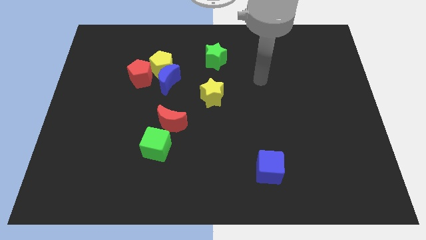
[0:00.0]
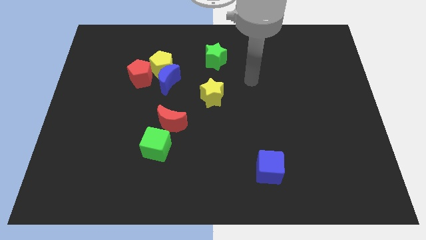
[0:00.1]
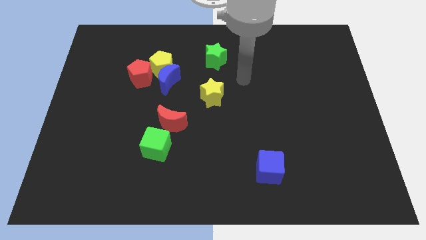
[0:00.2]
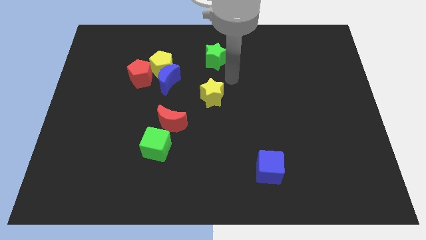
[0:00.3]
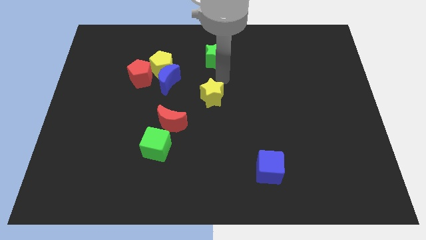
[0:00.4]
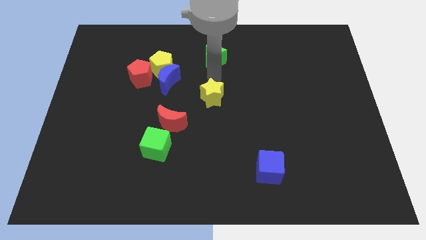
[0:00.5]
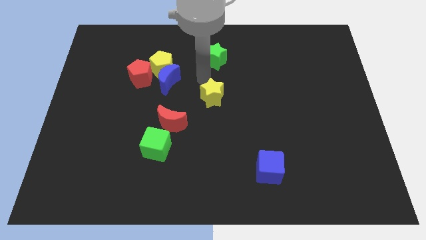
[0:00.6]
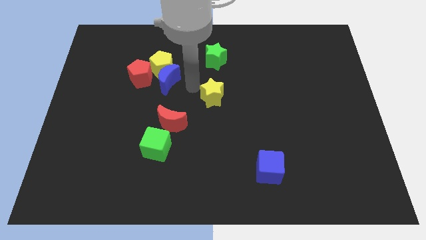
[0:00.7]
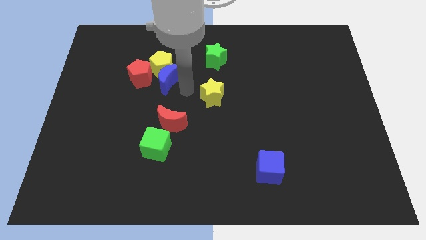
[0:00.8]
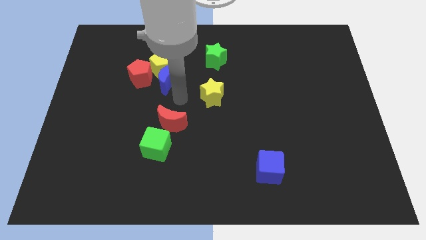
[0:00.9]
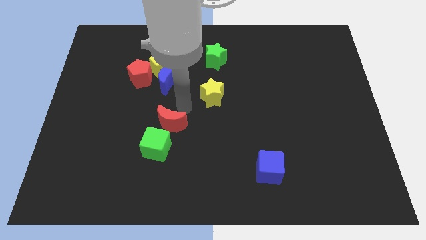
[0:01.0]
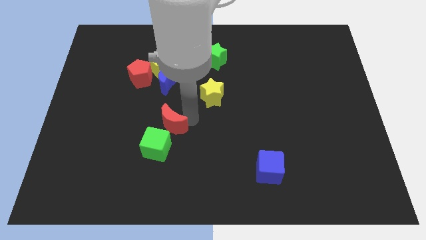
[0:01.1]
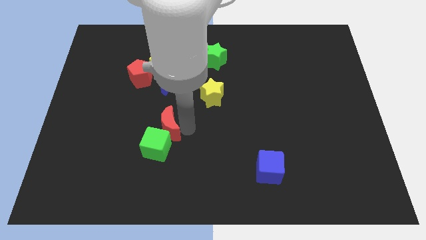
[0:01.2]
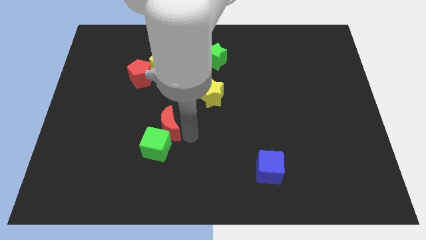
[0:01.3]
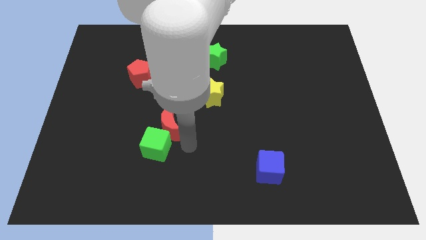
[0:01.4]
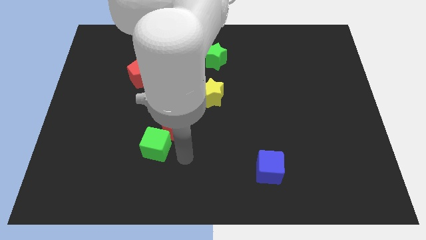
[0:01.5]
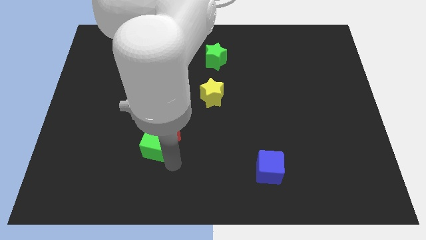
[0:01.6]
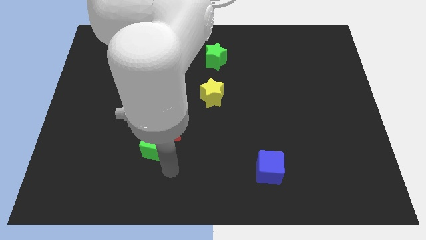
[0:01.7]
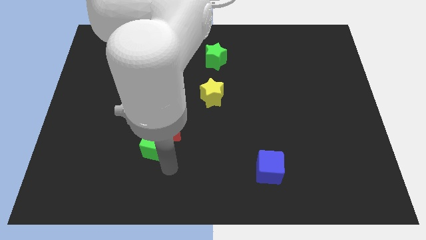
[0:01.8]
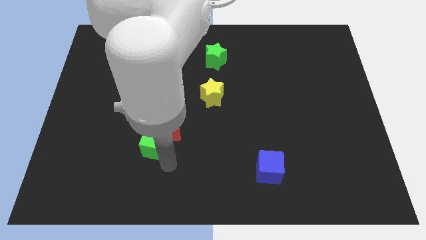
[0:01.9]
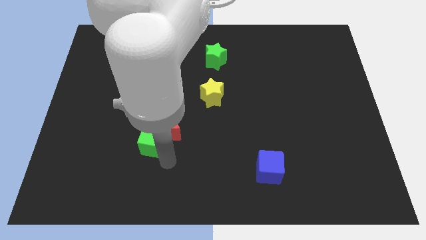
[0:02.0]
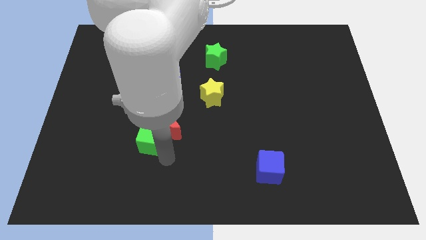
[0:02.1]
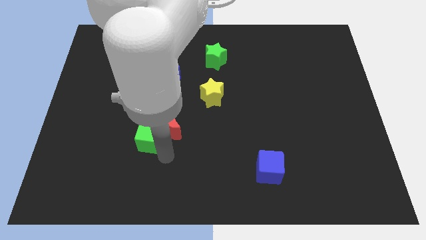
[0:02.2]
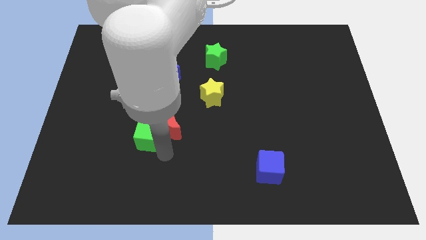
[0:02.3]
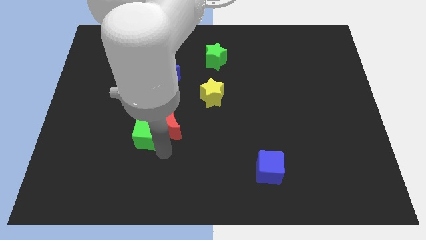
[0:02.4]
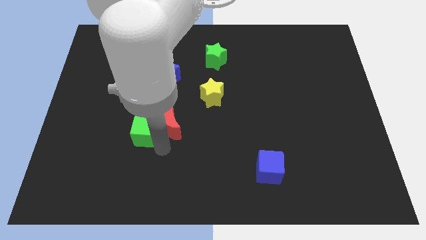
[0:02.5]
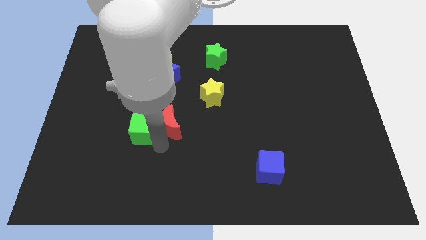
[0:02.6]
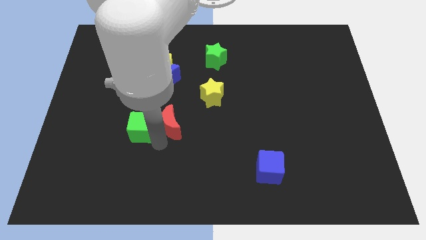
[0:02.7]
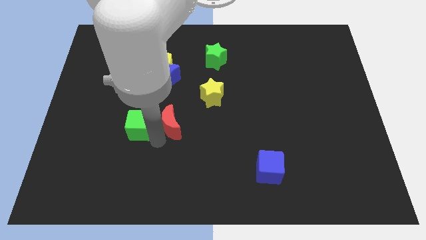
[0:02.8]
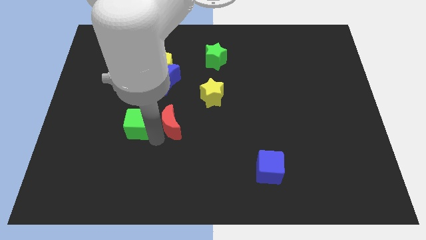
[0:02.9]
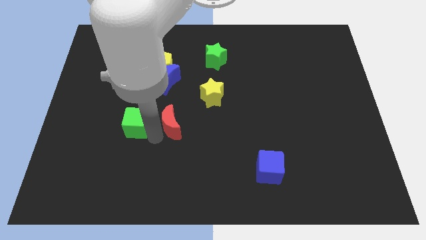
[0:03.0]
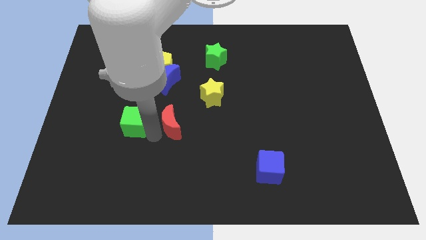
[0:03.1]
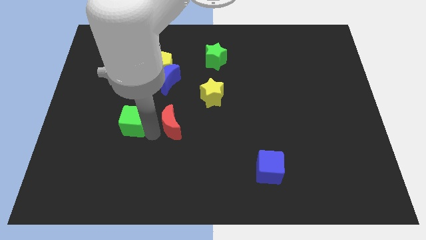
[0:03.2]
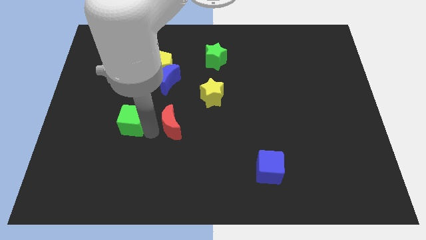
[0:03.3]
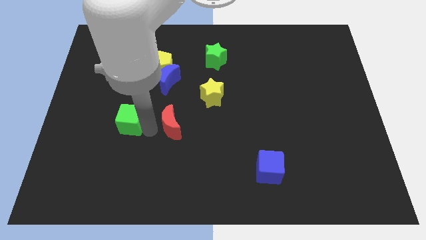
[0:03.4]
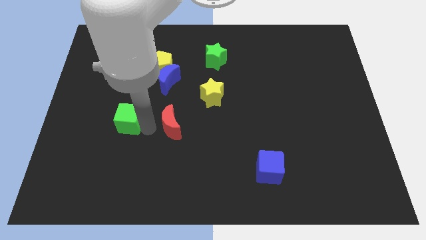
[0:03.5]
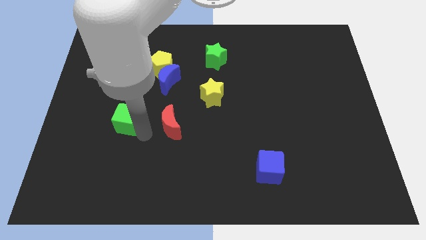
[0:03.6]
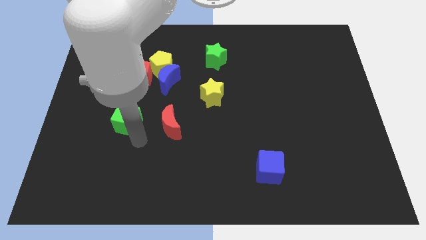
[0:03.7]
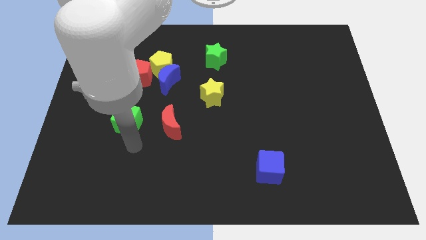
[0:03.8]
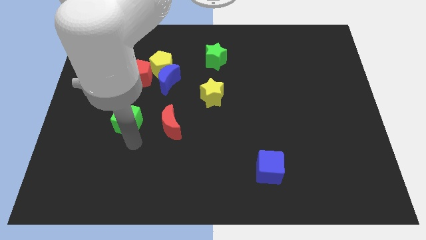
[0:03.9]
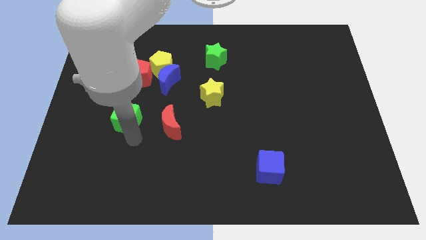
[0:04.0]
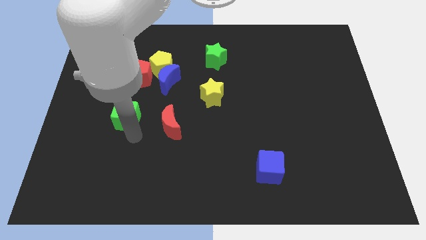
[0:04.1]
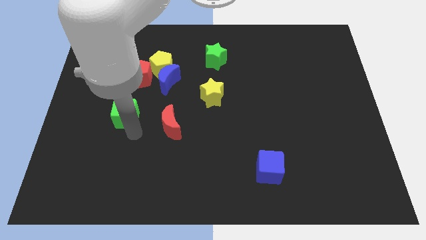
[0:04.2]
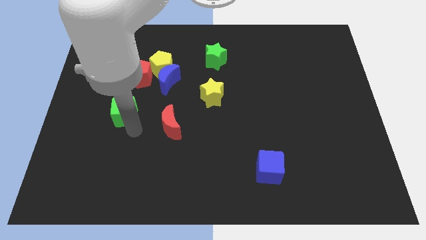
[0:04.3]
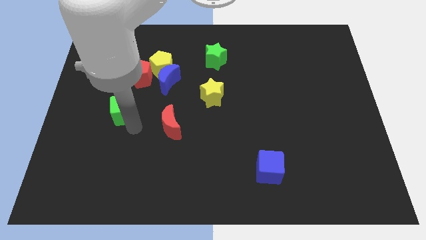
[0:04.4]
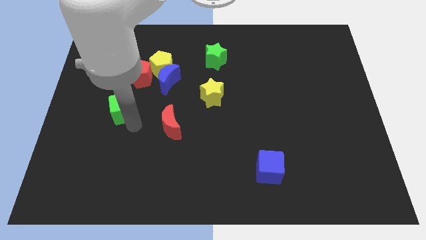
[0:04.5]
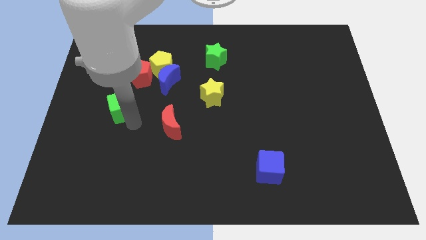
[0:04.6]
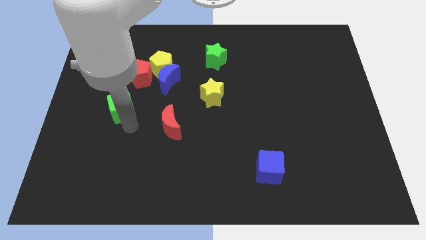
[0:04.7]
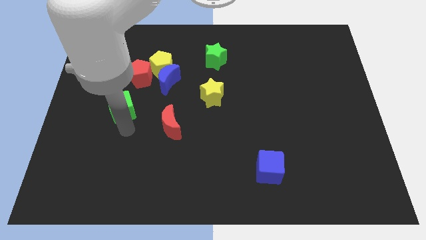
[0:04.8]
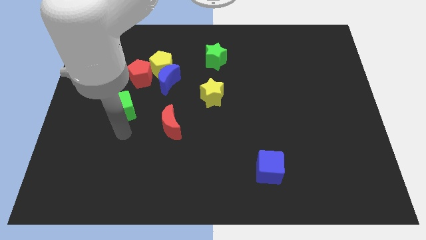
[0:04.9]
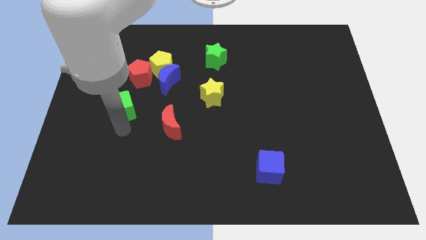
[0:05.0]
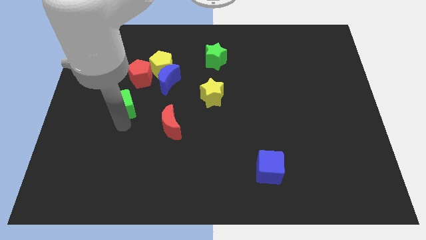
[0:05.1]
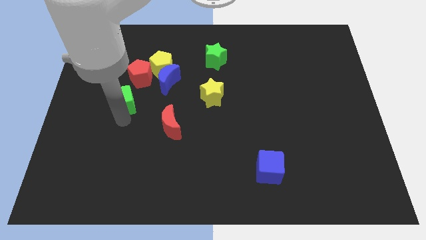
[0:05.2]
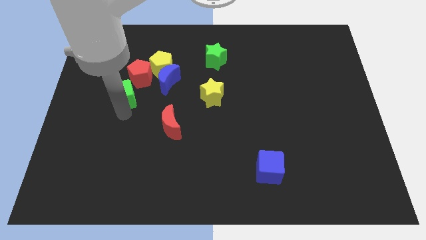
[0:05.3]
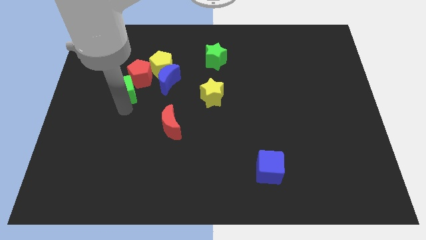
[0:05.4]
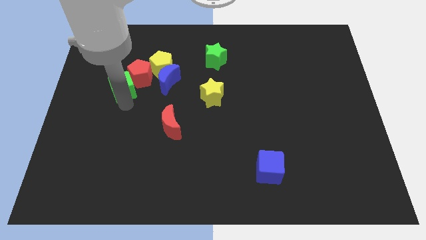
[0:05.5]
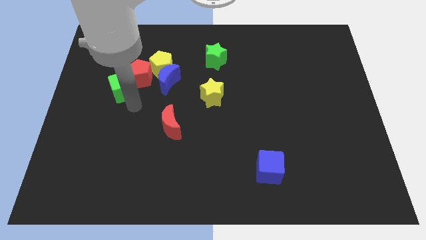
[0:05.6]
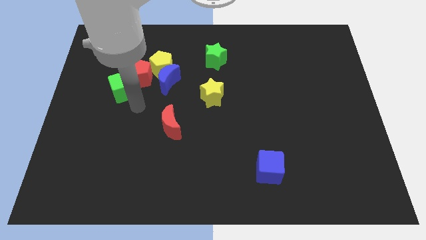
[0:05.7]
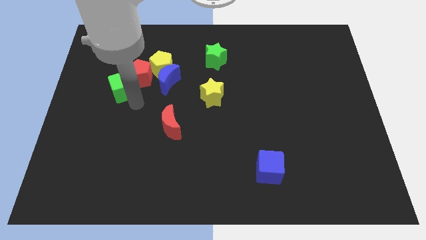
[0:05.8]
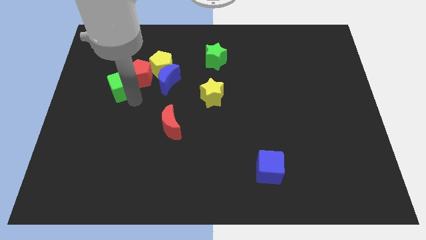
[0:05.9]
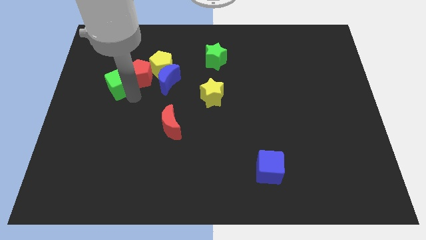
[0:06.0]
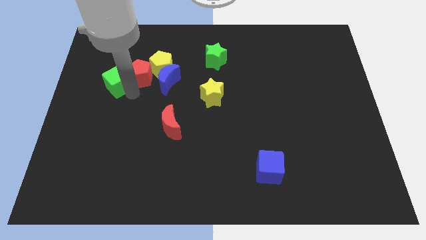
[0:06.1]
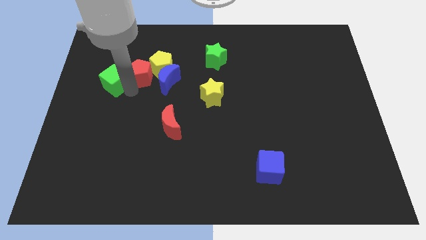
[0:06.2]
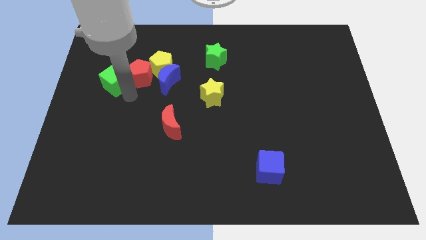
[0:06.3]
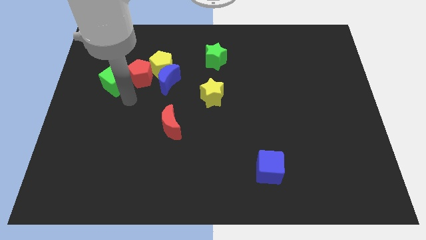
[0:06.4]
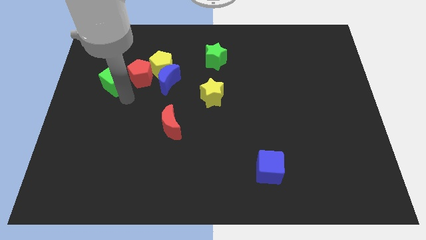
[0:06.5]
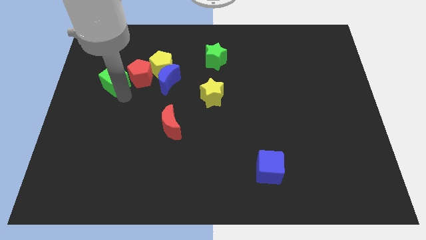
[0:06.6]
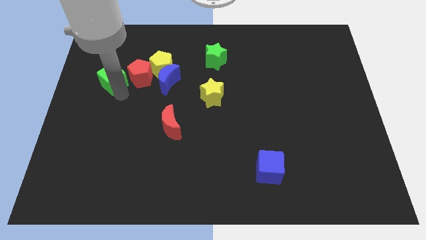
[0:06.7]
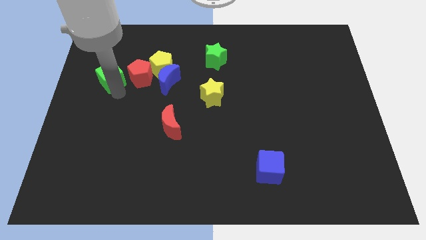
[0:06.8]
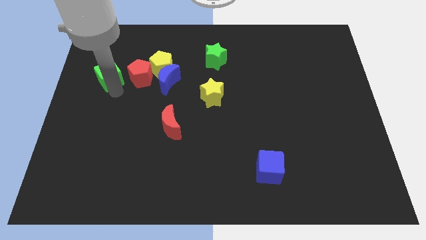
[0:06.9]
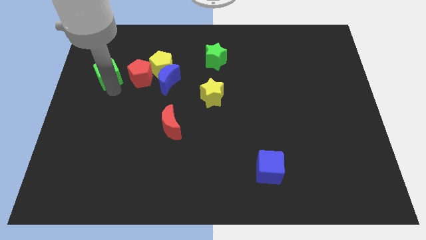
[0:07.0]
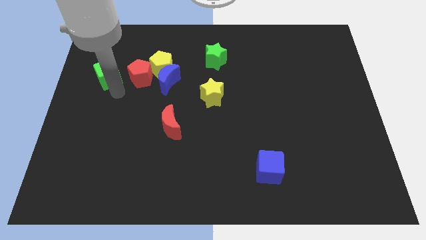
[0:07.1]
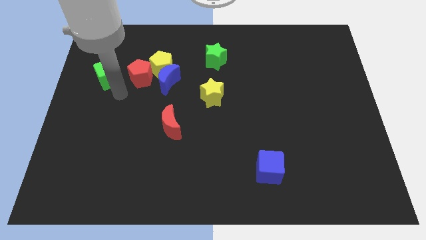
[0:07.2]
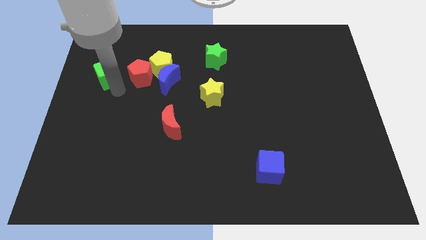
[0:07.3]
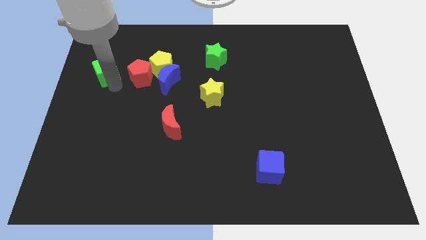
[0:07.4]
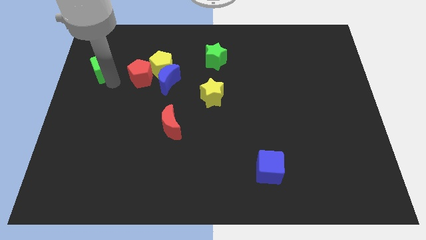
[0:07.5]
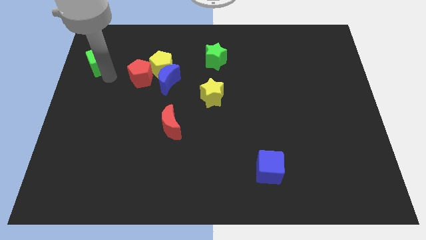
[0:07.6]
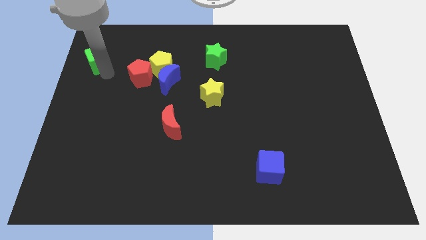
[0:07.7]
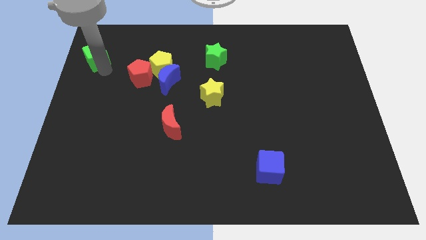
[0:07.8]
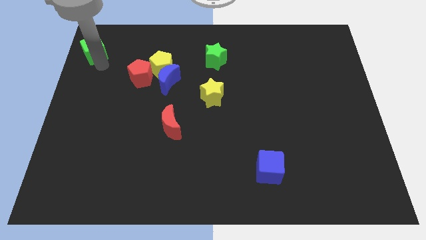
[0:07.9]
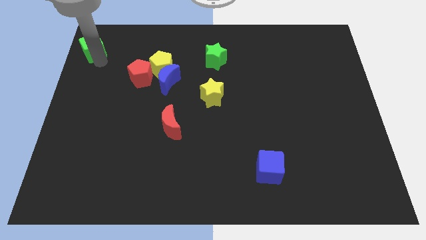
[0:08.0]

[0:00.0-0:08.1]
push the green cube to the top left corner
